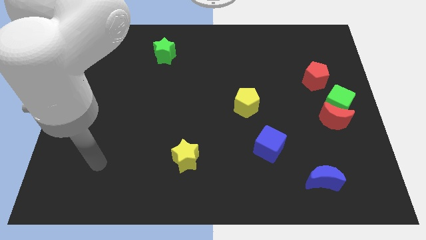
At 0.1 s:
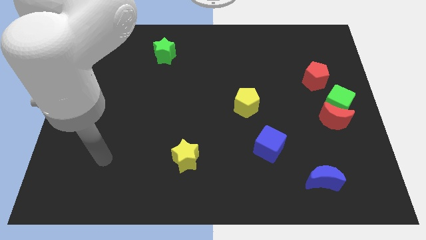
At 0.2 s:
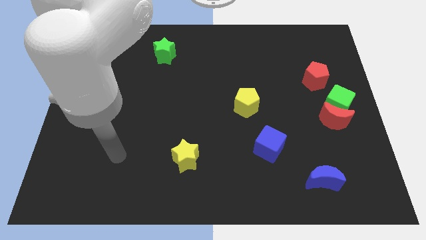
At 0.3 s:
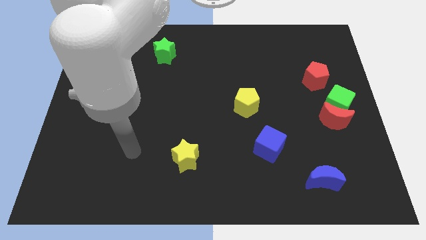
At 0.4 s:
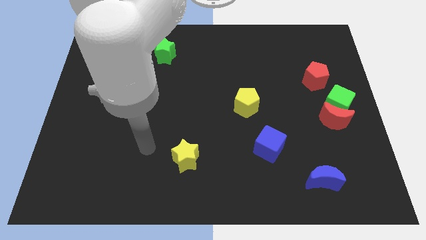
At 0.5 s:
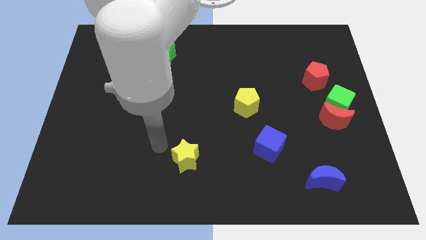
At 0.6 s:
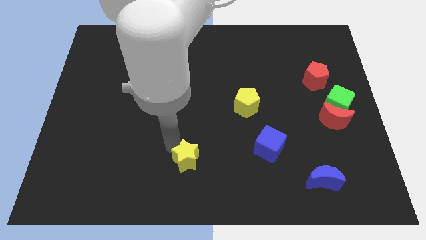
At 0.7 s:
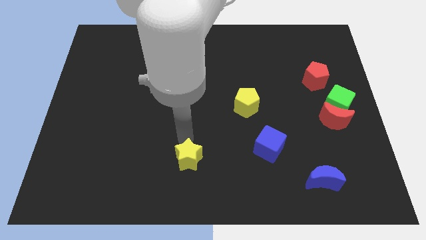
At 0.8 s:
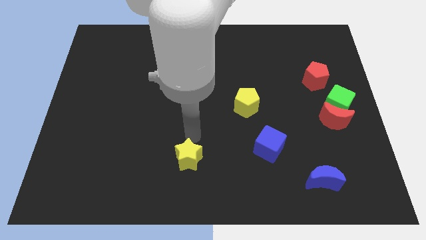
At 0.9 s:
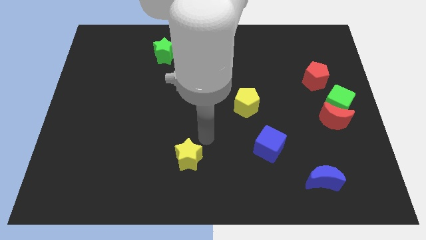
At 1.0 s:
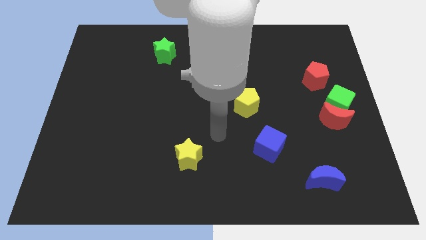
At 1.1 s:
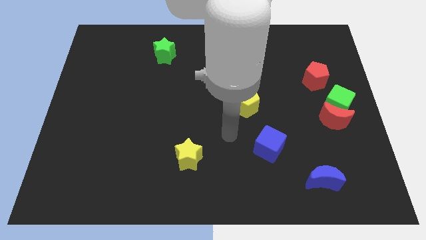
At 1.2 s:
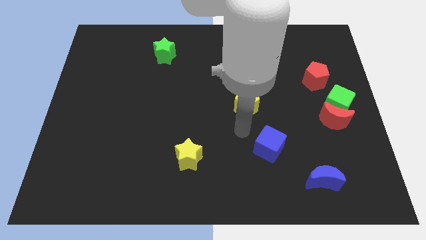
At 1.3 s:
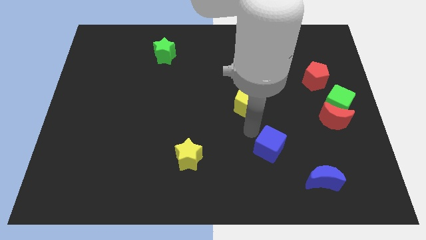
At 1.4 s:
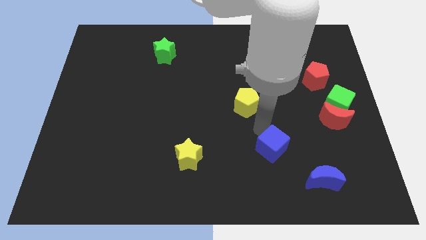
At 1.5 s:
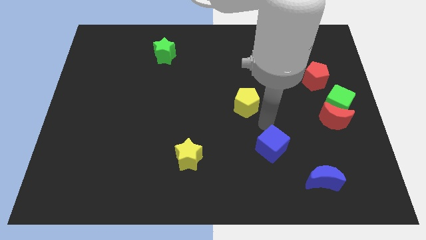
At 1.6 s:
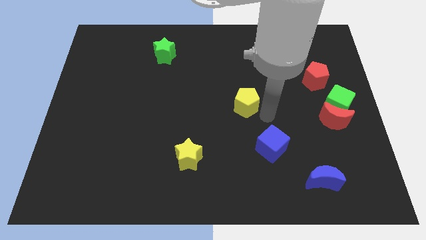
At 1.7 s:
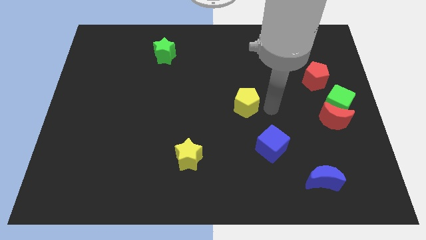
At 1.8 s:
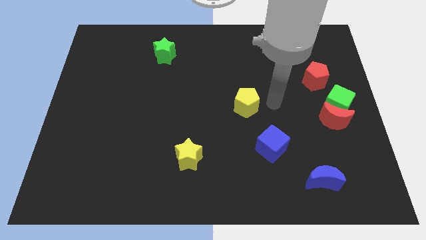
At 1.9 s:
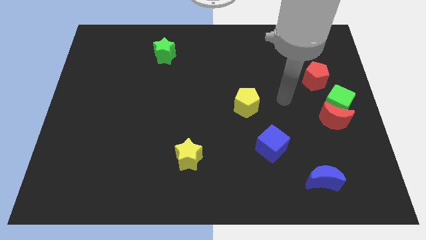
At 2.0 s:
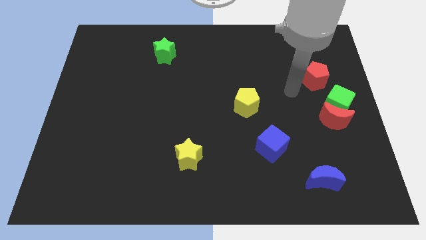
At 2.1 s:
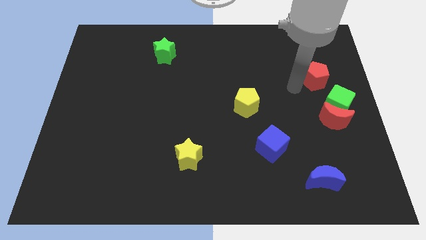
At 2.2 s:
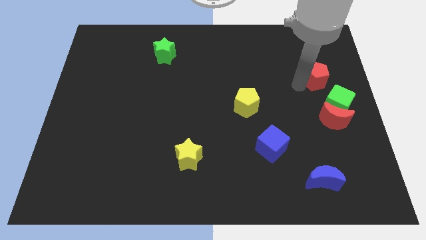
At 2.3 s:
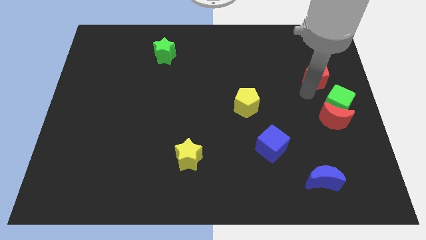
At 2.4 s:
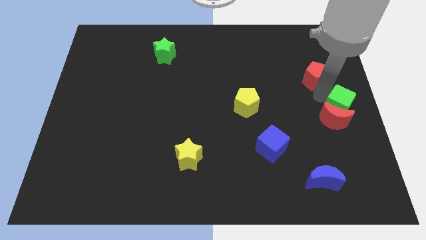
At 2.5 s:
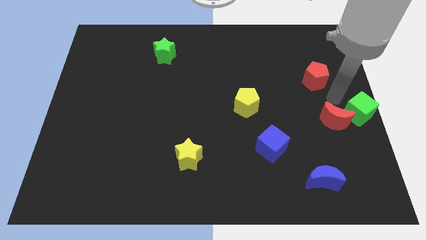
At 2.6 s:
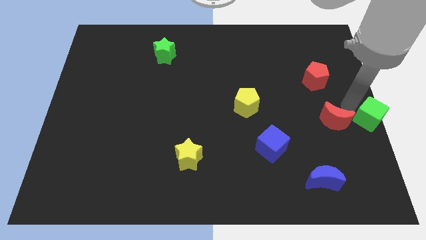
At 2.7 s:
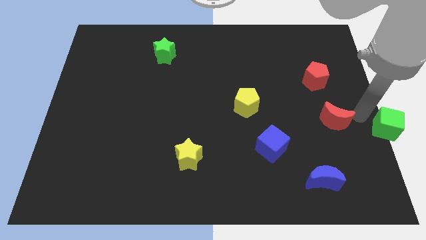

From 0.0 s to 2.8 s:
pull the red moon apart from the green cube

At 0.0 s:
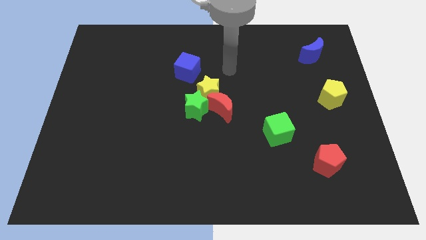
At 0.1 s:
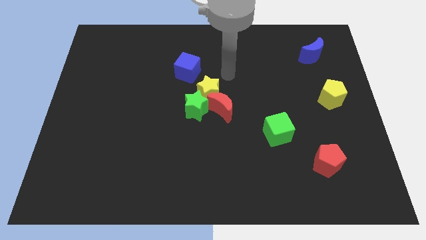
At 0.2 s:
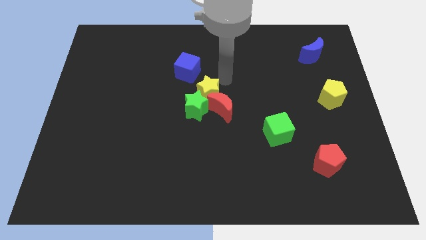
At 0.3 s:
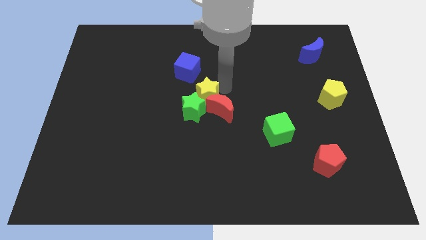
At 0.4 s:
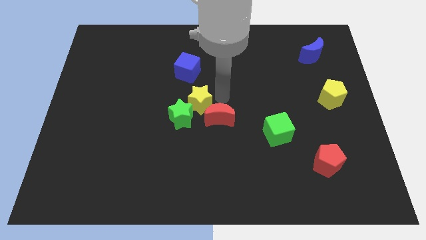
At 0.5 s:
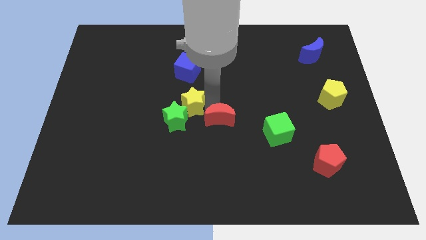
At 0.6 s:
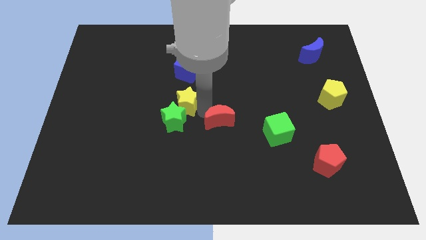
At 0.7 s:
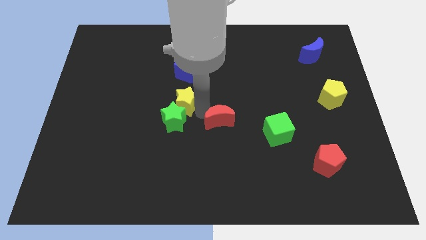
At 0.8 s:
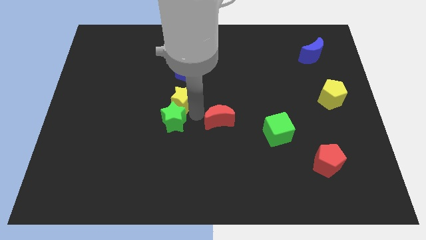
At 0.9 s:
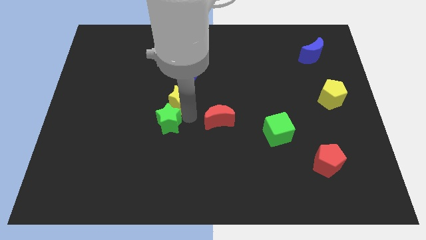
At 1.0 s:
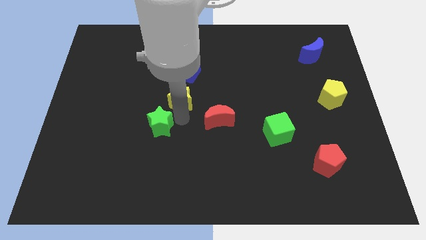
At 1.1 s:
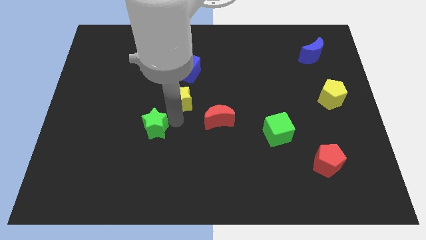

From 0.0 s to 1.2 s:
separate the green star from the yellow star and red moon

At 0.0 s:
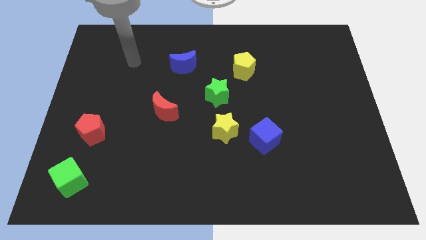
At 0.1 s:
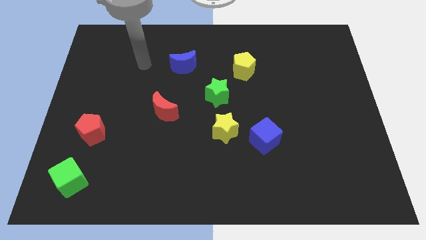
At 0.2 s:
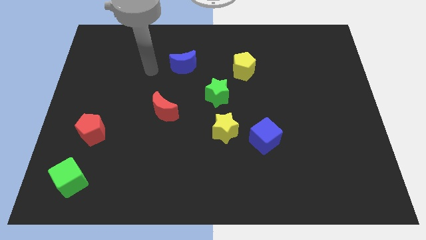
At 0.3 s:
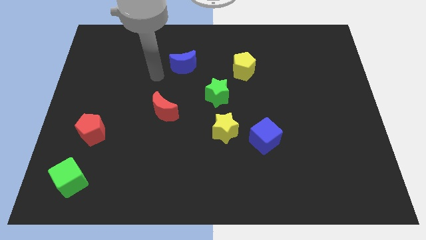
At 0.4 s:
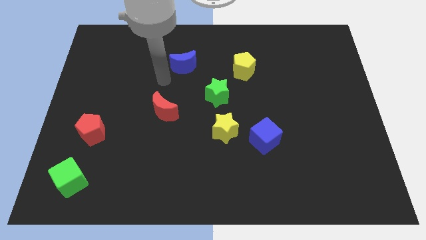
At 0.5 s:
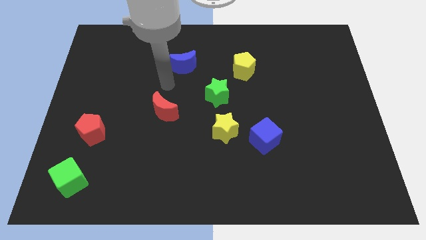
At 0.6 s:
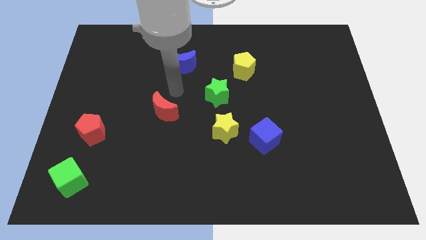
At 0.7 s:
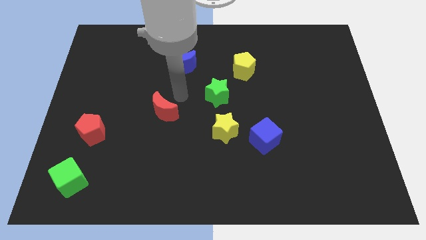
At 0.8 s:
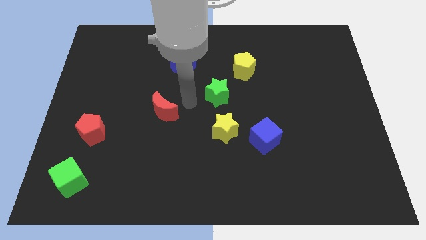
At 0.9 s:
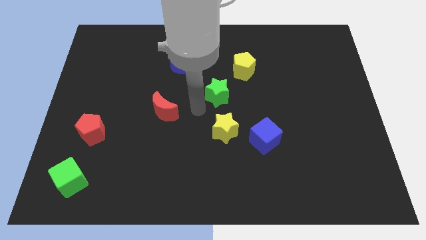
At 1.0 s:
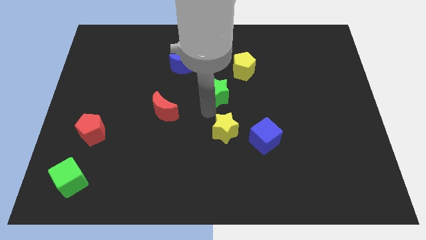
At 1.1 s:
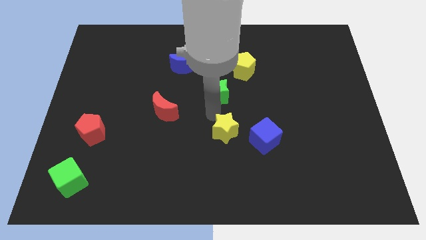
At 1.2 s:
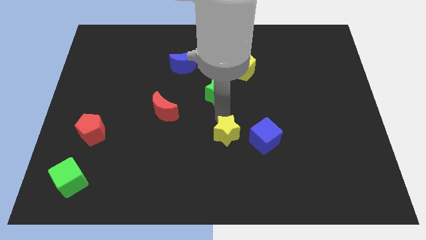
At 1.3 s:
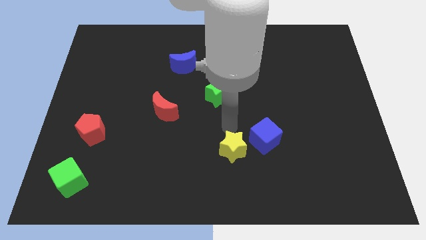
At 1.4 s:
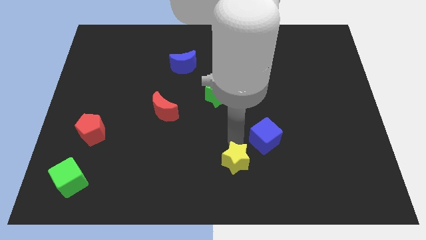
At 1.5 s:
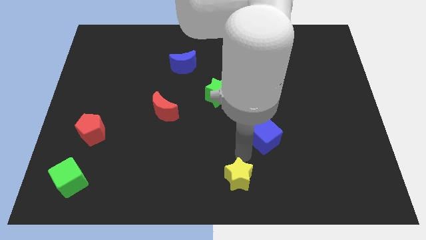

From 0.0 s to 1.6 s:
move the blue cube away from the yellow star

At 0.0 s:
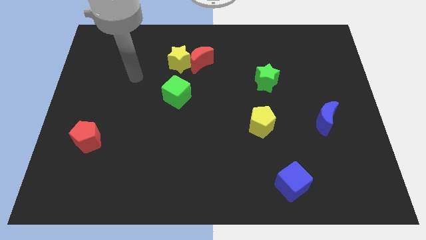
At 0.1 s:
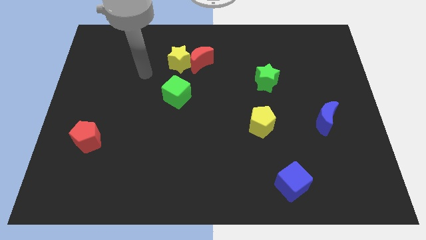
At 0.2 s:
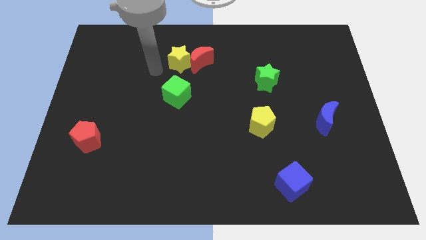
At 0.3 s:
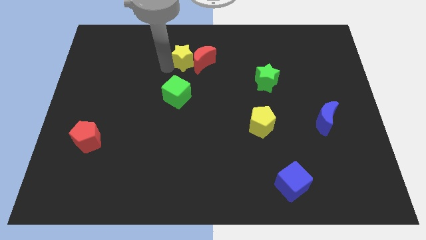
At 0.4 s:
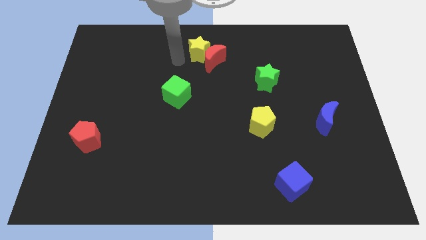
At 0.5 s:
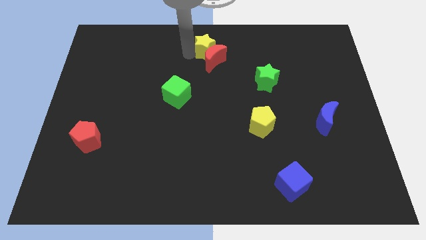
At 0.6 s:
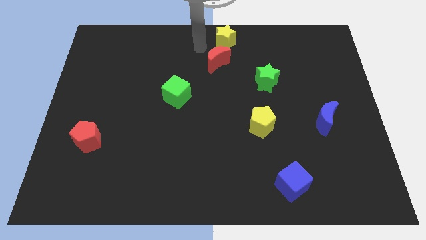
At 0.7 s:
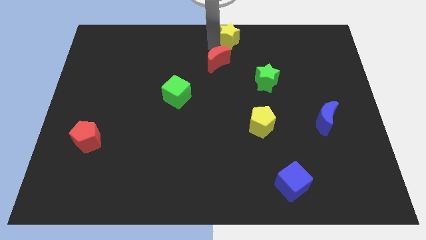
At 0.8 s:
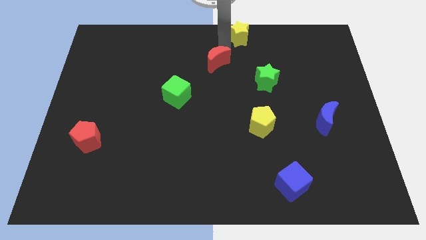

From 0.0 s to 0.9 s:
move the red moon away from the yellow star

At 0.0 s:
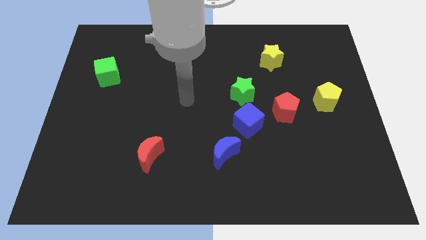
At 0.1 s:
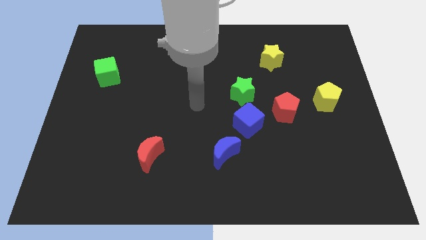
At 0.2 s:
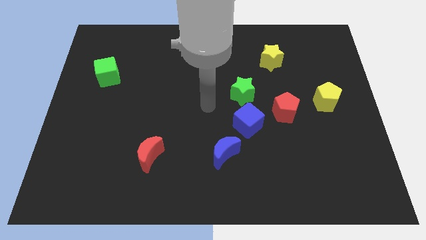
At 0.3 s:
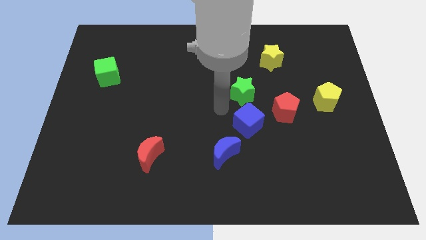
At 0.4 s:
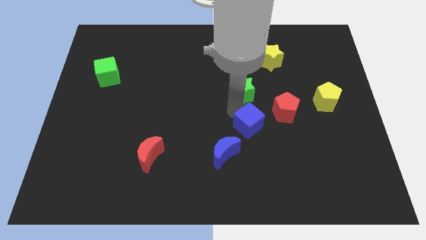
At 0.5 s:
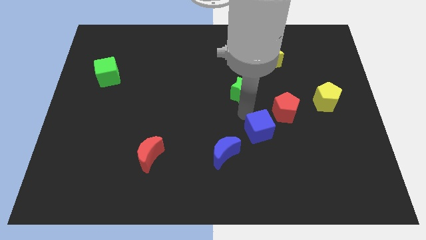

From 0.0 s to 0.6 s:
pull the green star apart from the blue cube

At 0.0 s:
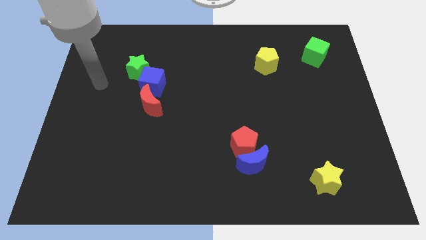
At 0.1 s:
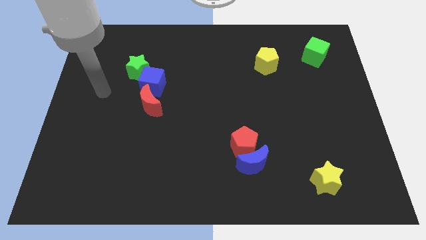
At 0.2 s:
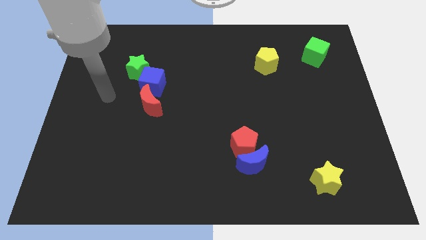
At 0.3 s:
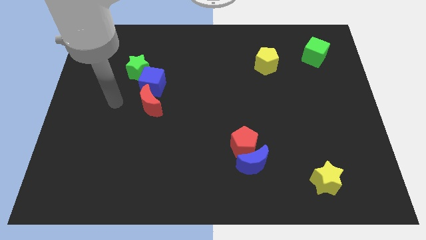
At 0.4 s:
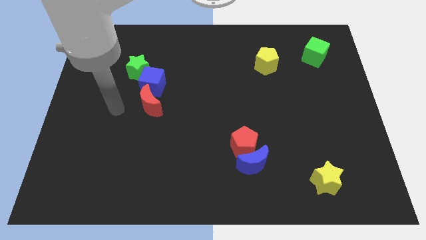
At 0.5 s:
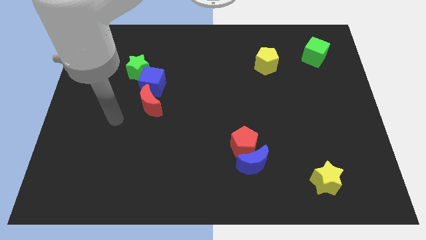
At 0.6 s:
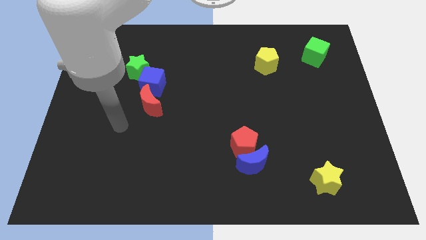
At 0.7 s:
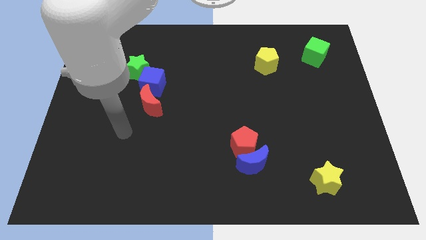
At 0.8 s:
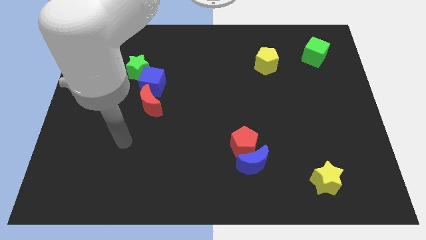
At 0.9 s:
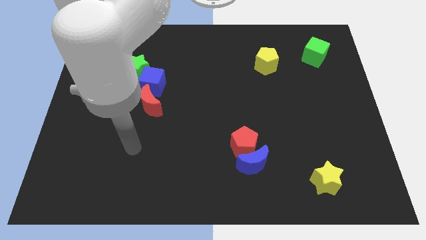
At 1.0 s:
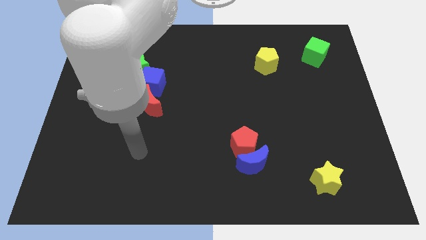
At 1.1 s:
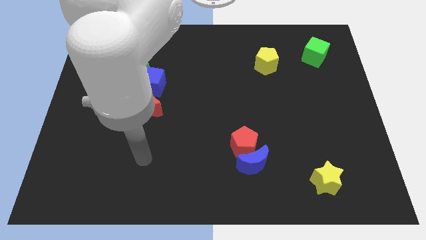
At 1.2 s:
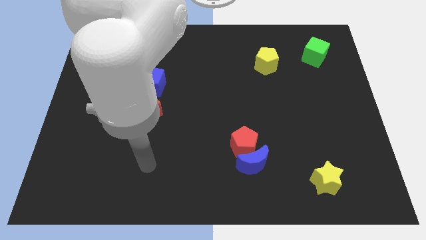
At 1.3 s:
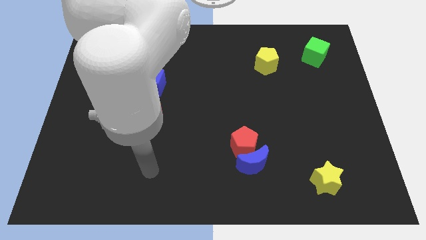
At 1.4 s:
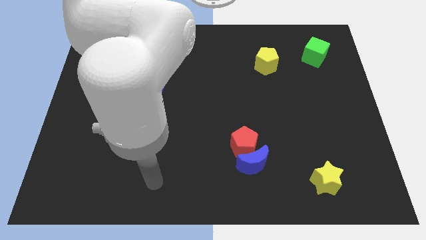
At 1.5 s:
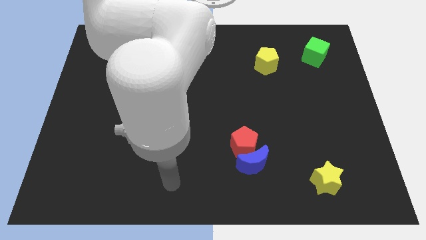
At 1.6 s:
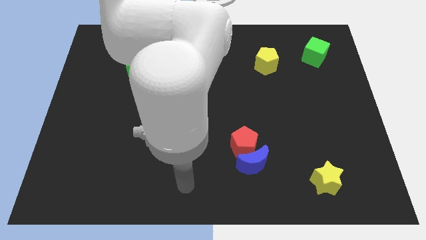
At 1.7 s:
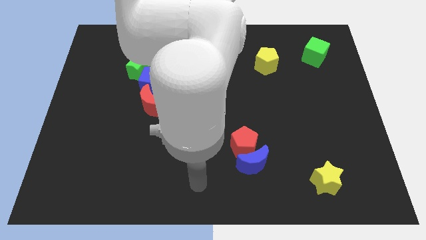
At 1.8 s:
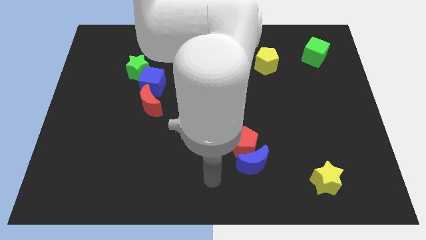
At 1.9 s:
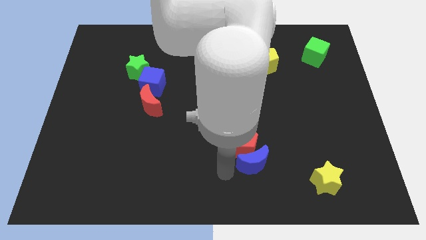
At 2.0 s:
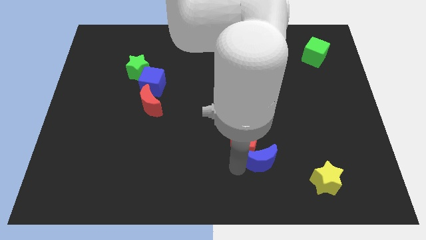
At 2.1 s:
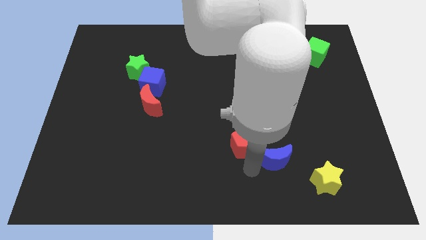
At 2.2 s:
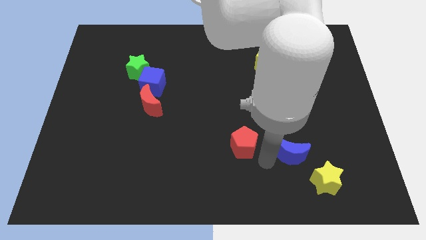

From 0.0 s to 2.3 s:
separate the red pentagon from the blue moon
